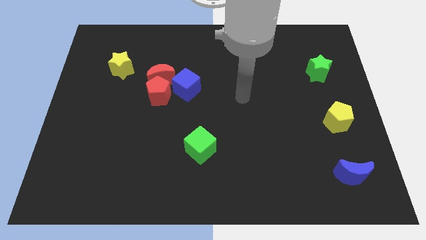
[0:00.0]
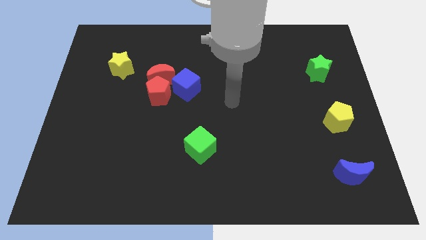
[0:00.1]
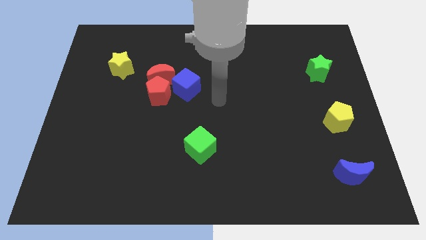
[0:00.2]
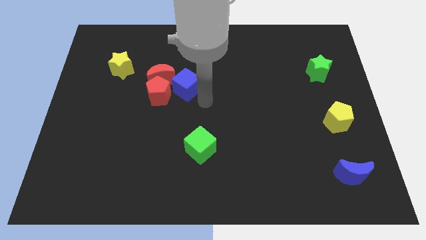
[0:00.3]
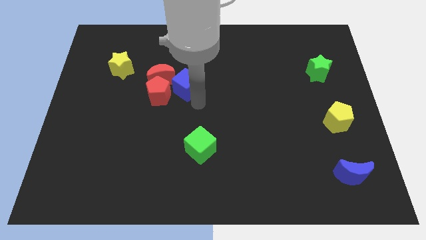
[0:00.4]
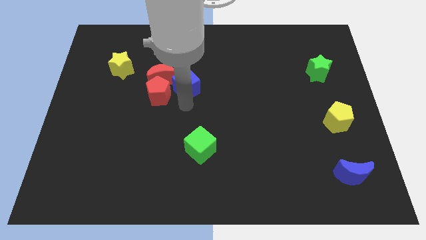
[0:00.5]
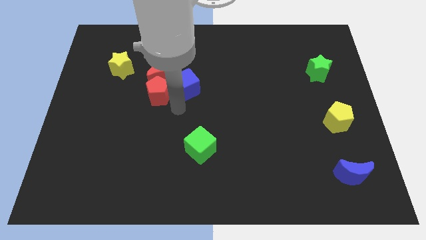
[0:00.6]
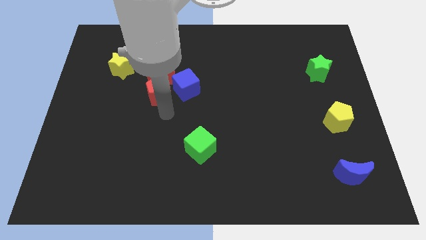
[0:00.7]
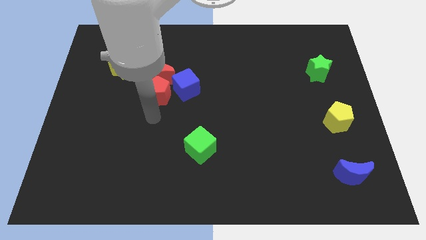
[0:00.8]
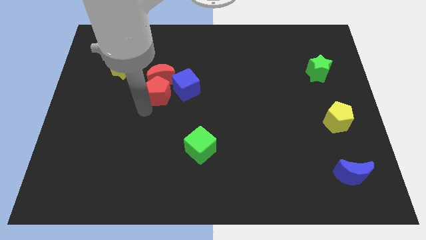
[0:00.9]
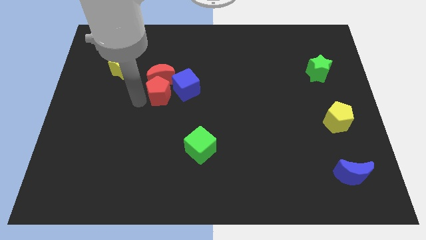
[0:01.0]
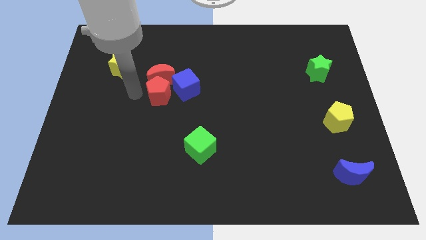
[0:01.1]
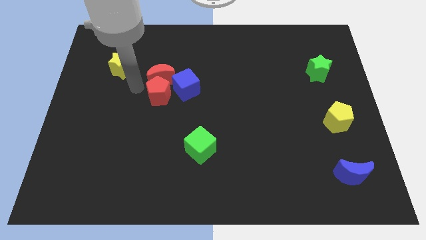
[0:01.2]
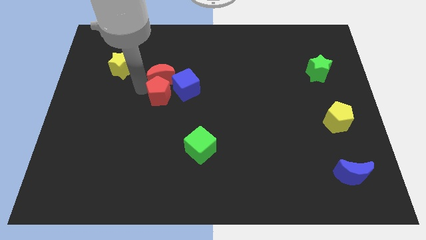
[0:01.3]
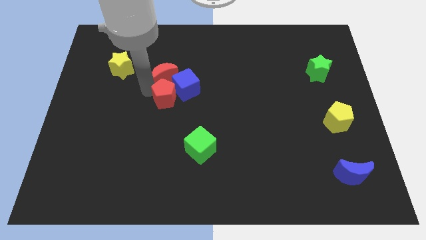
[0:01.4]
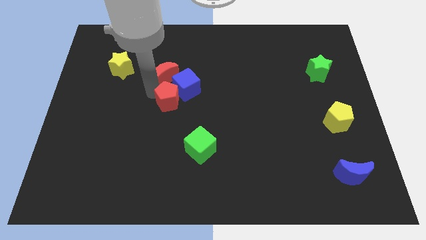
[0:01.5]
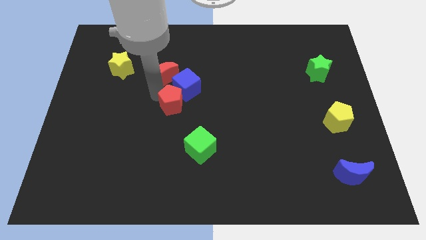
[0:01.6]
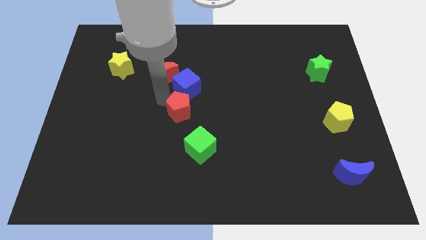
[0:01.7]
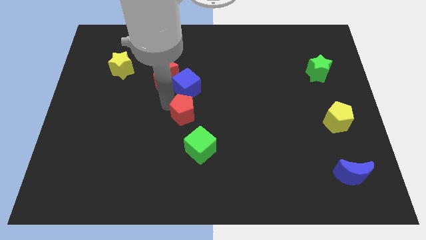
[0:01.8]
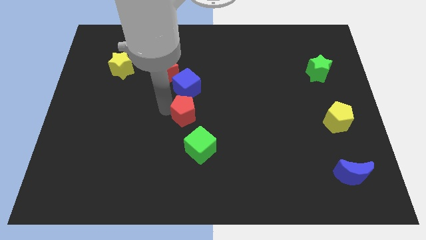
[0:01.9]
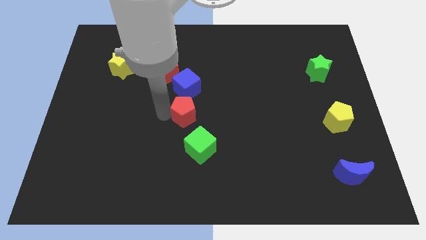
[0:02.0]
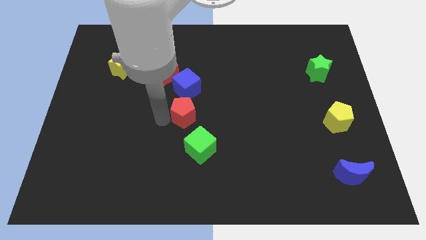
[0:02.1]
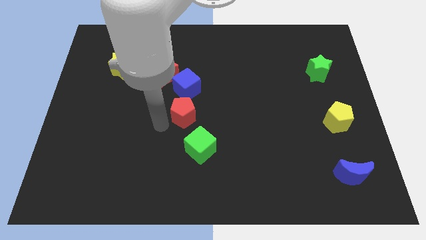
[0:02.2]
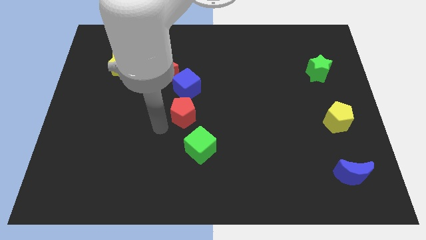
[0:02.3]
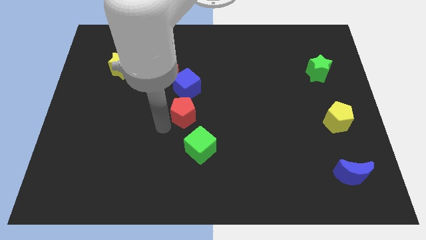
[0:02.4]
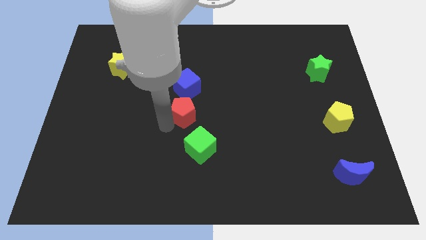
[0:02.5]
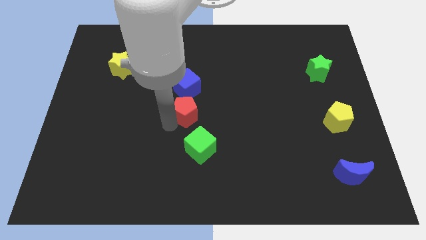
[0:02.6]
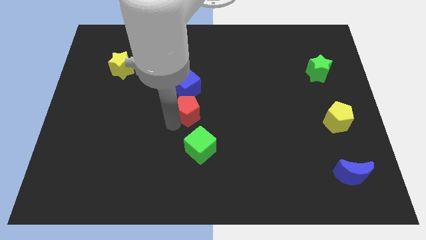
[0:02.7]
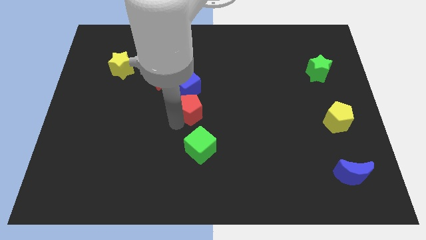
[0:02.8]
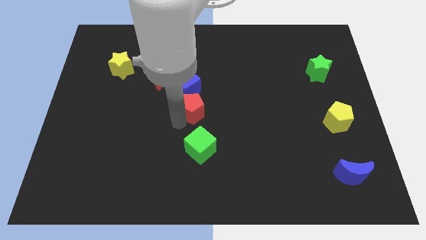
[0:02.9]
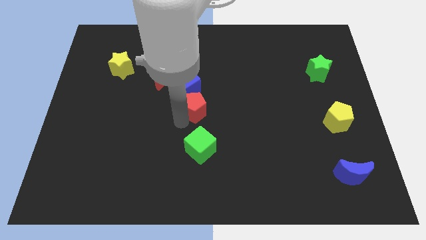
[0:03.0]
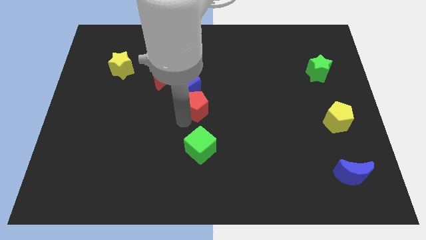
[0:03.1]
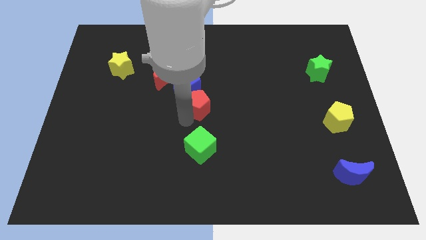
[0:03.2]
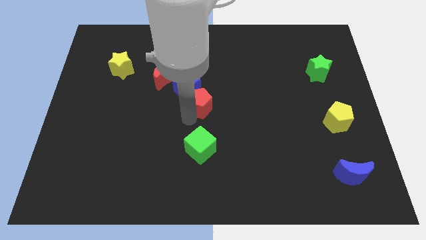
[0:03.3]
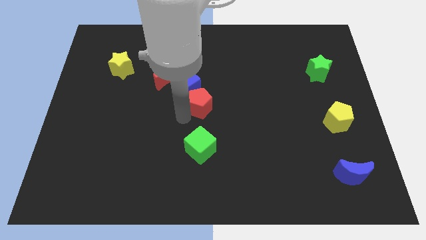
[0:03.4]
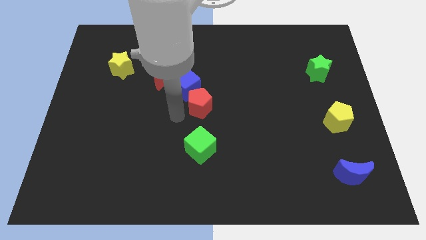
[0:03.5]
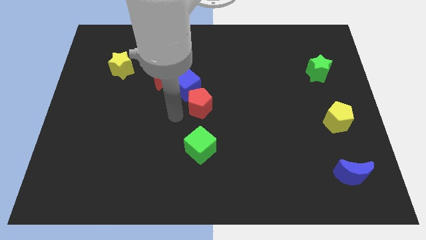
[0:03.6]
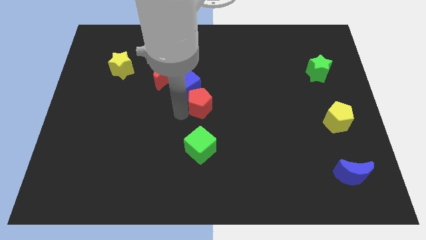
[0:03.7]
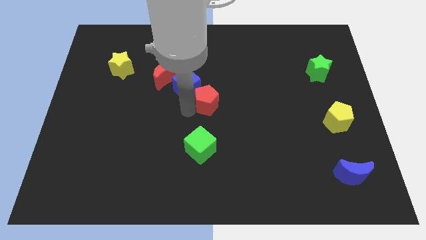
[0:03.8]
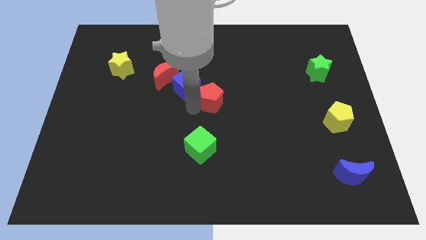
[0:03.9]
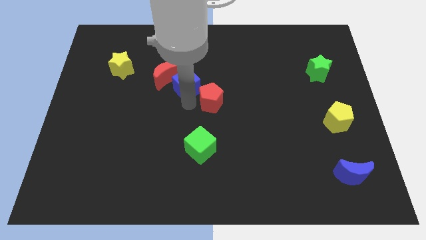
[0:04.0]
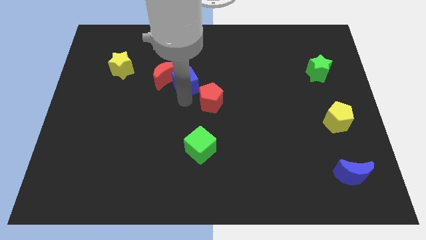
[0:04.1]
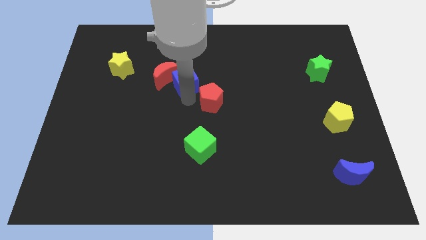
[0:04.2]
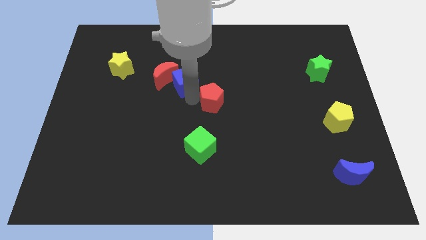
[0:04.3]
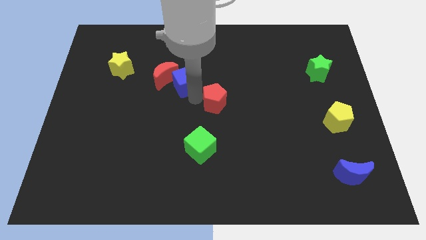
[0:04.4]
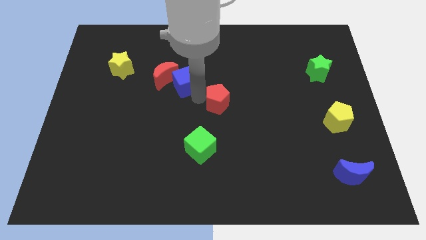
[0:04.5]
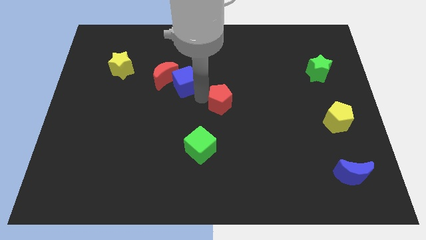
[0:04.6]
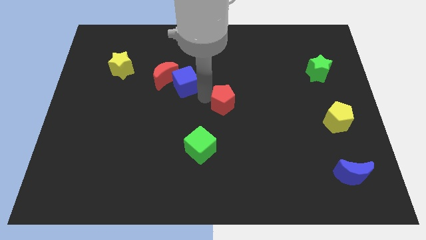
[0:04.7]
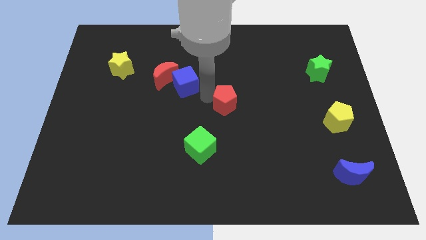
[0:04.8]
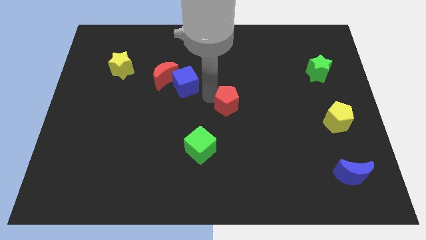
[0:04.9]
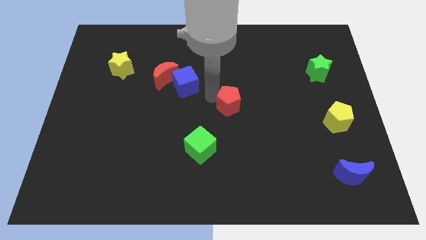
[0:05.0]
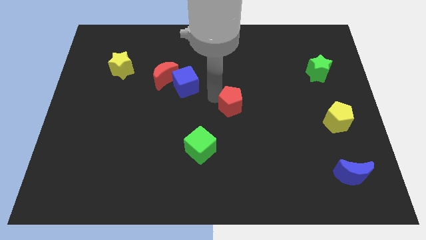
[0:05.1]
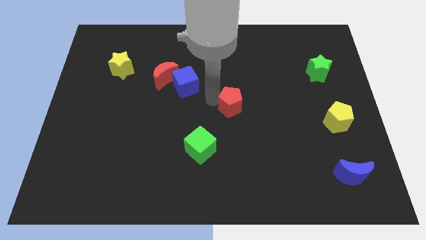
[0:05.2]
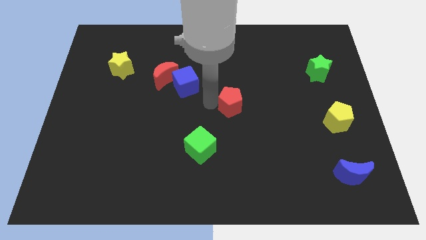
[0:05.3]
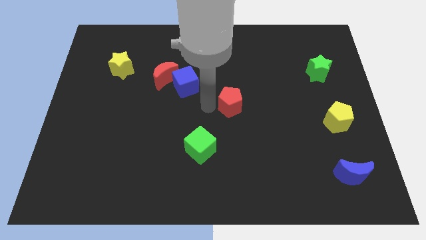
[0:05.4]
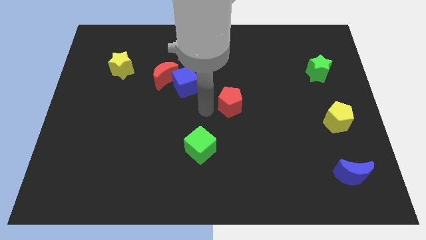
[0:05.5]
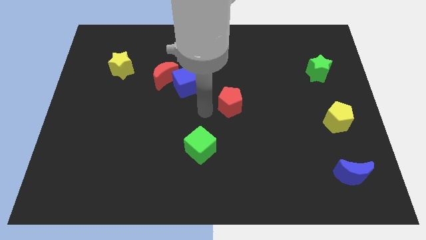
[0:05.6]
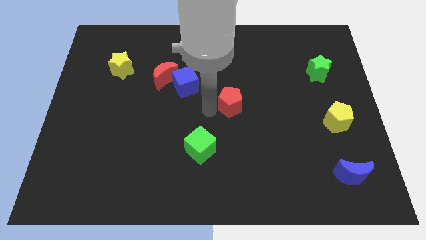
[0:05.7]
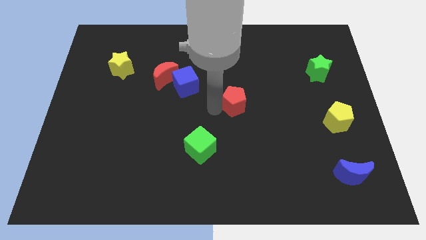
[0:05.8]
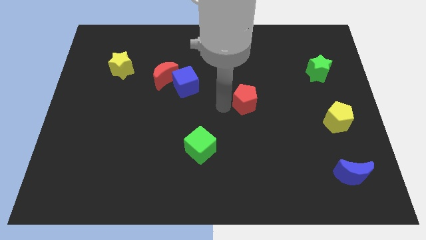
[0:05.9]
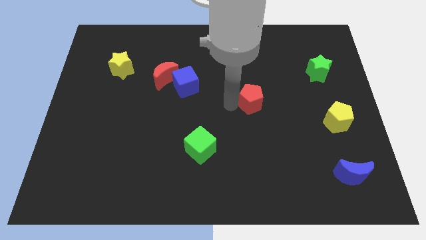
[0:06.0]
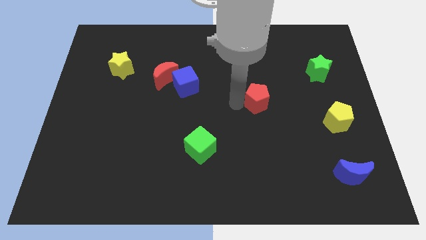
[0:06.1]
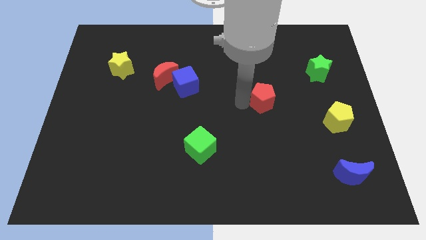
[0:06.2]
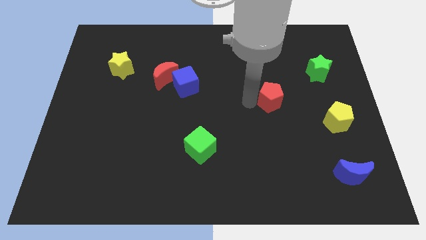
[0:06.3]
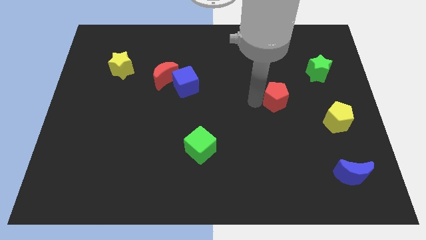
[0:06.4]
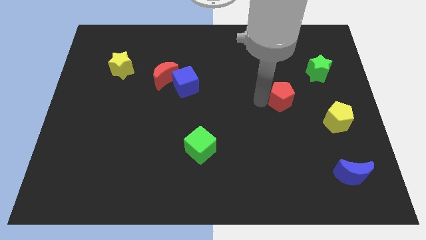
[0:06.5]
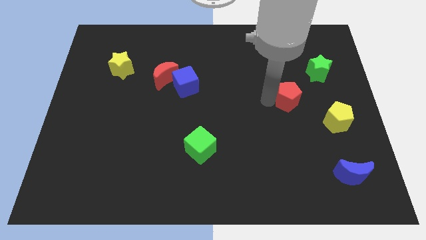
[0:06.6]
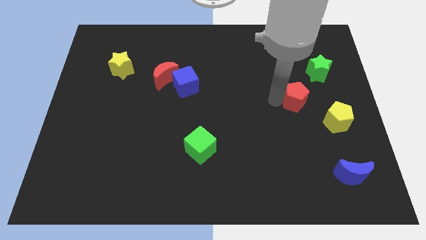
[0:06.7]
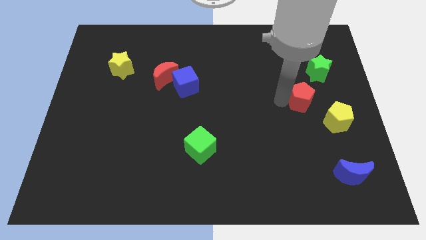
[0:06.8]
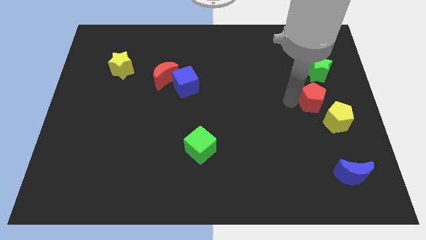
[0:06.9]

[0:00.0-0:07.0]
push the red pentagon above the yellow pentagon
